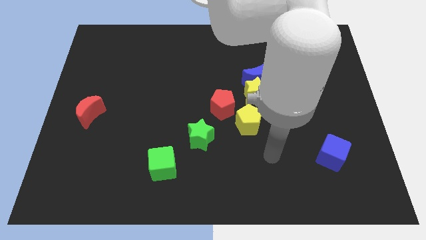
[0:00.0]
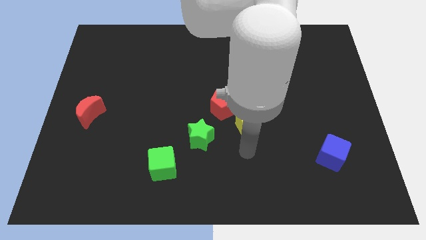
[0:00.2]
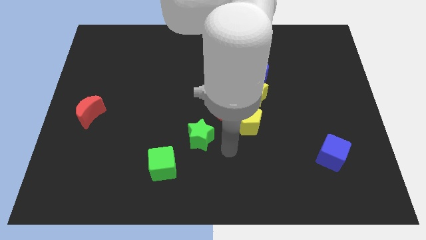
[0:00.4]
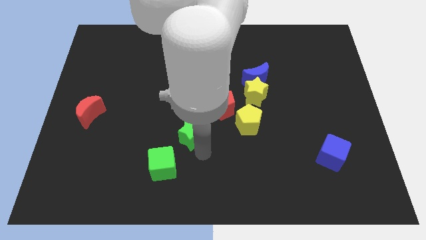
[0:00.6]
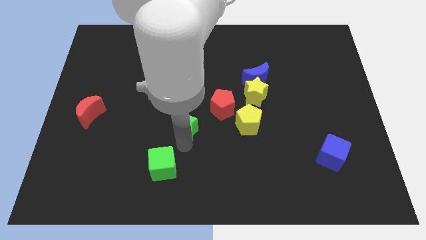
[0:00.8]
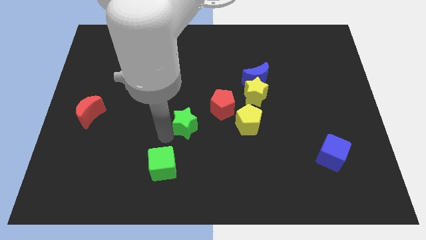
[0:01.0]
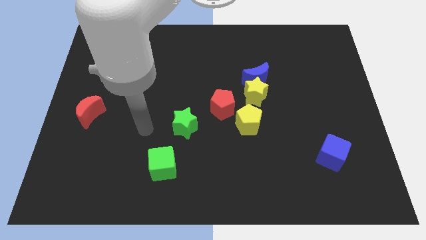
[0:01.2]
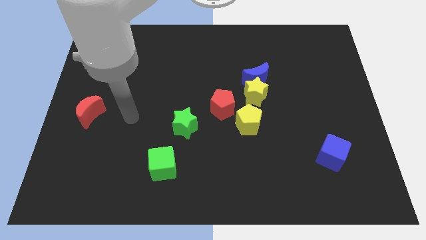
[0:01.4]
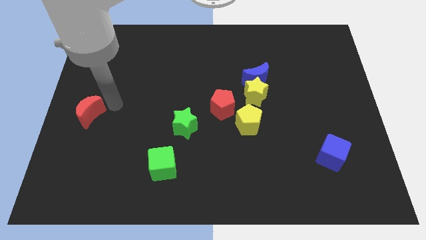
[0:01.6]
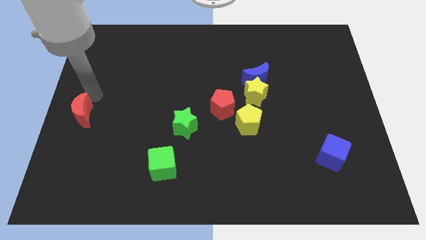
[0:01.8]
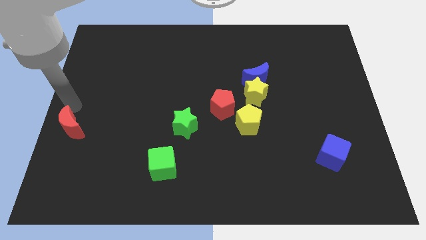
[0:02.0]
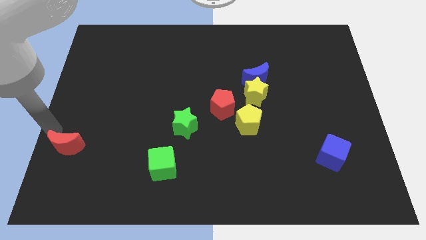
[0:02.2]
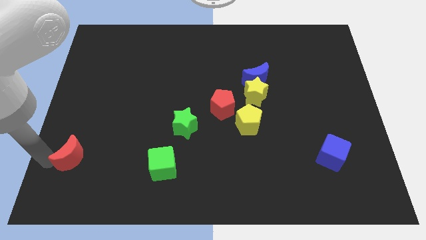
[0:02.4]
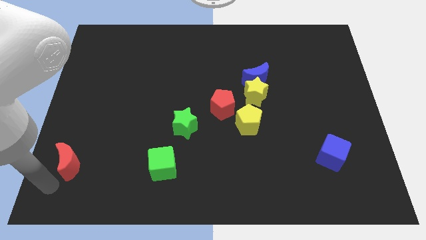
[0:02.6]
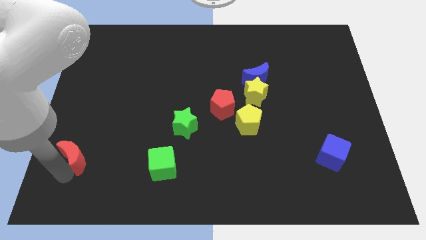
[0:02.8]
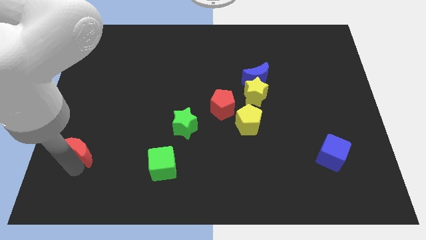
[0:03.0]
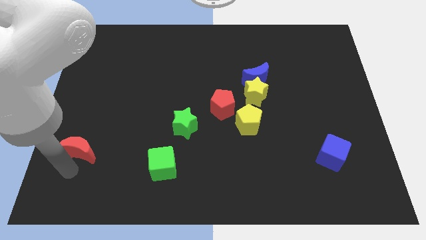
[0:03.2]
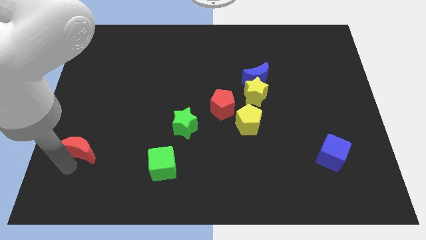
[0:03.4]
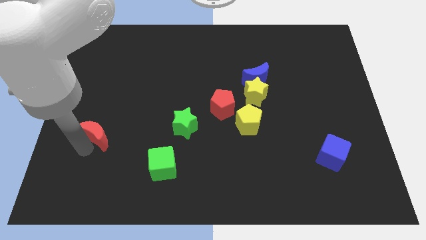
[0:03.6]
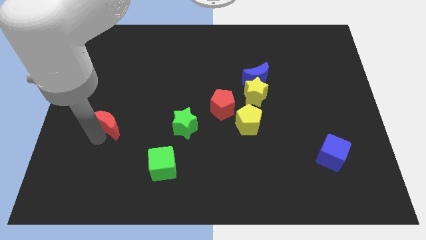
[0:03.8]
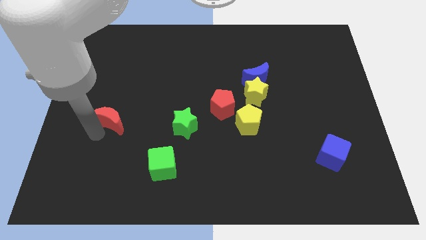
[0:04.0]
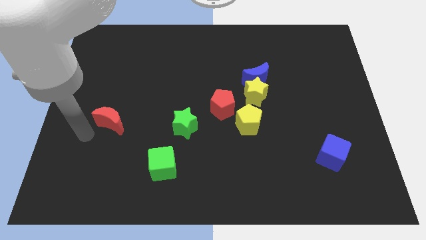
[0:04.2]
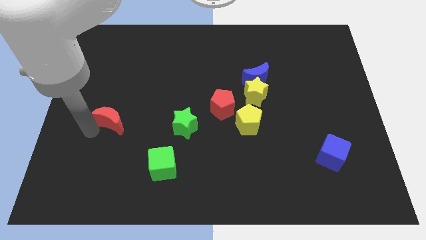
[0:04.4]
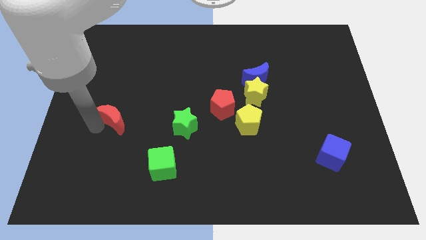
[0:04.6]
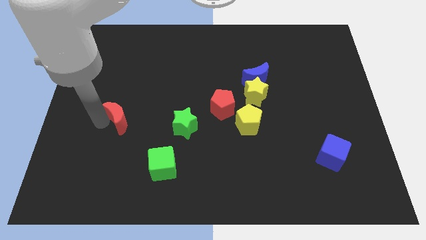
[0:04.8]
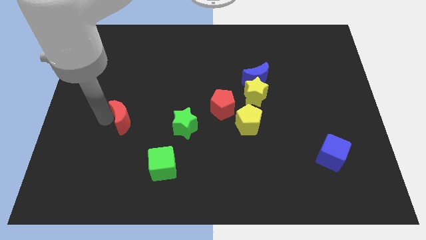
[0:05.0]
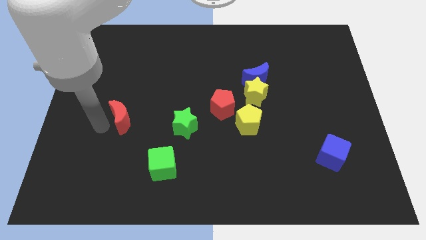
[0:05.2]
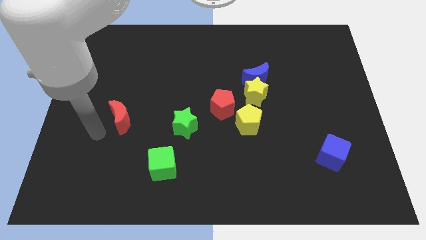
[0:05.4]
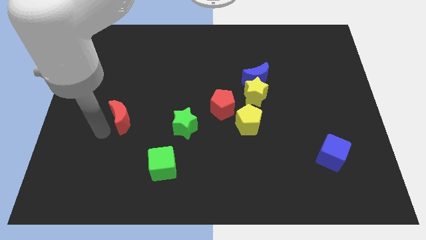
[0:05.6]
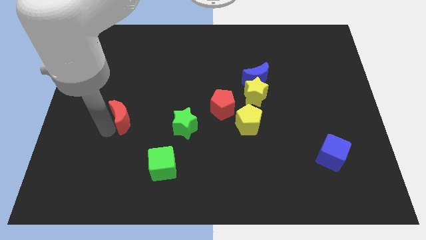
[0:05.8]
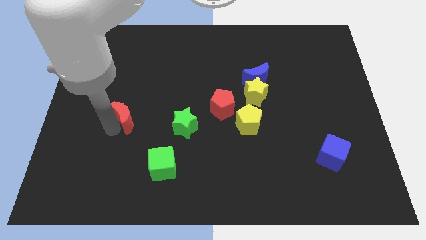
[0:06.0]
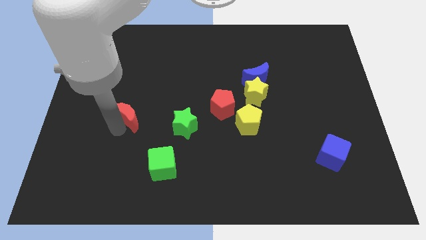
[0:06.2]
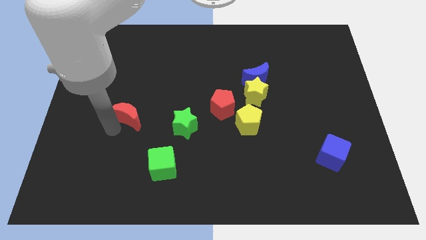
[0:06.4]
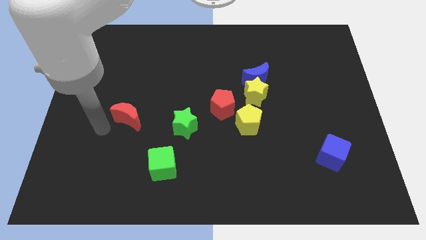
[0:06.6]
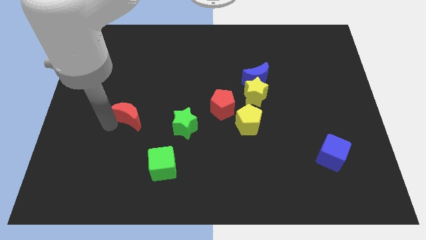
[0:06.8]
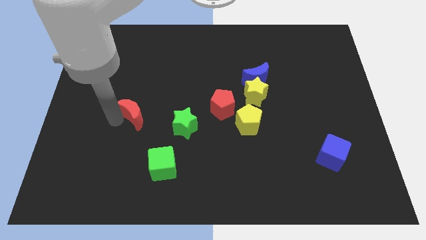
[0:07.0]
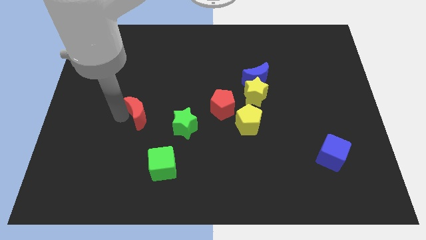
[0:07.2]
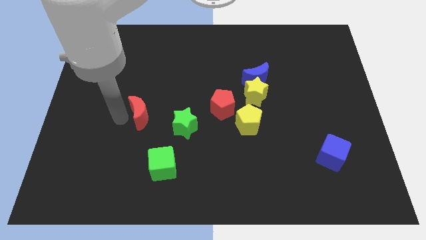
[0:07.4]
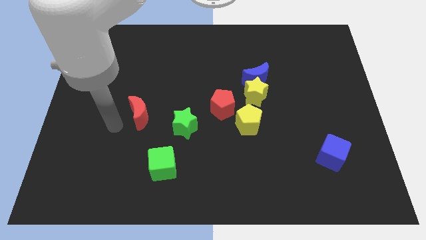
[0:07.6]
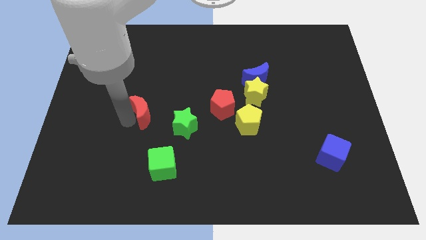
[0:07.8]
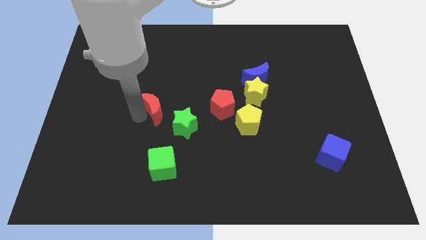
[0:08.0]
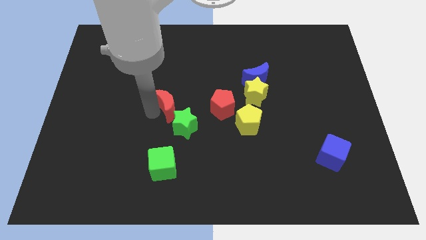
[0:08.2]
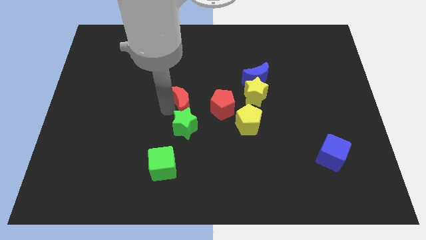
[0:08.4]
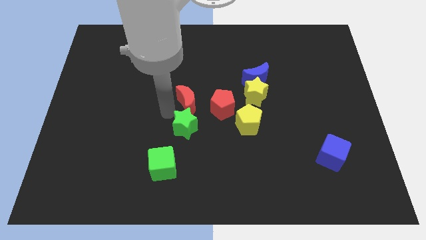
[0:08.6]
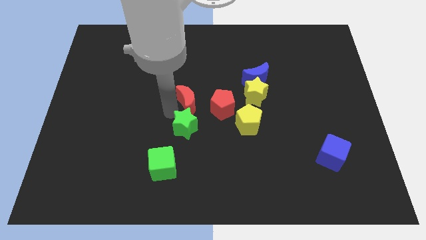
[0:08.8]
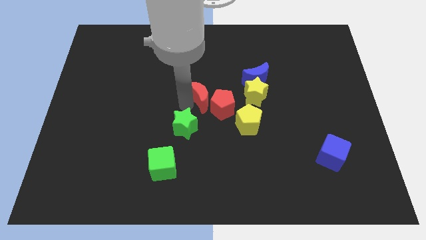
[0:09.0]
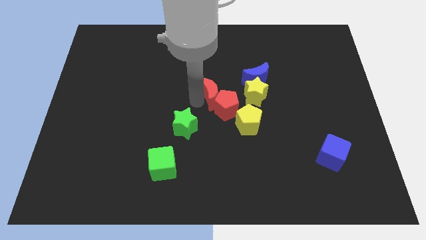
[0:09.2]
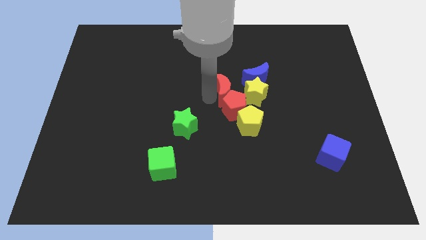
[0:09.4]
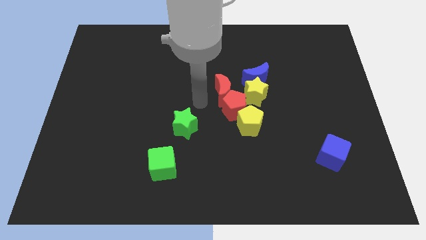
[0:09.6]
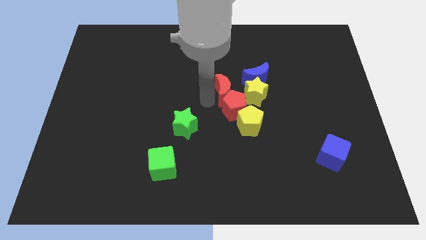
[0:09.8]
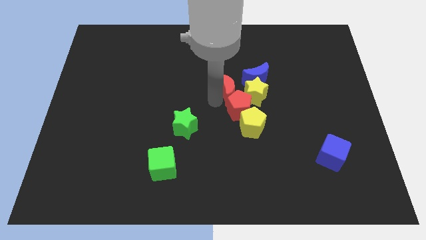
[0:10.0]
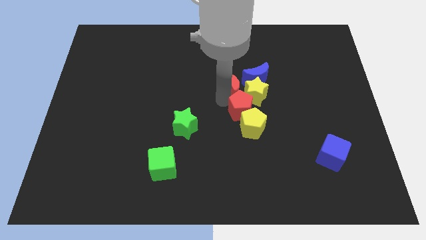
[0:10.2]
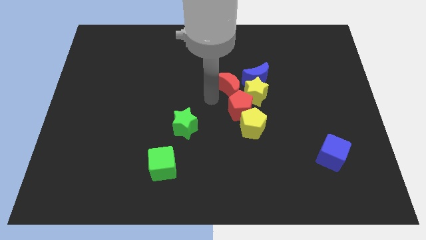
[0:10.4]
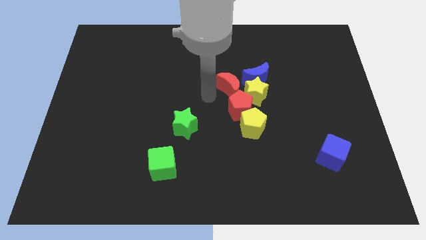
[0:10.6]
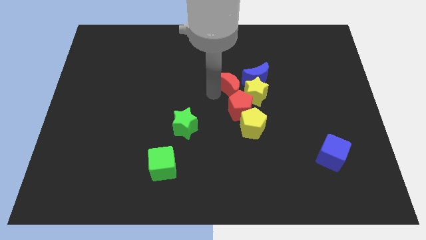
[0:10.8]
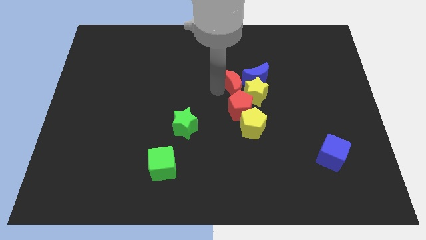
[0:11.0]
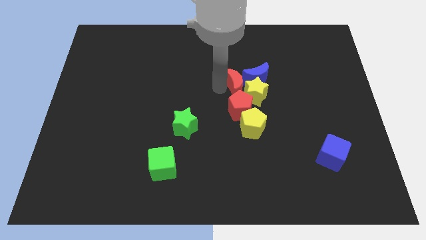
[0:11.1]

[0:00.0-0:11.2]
slide the red moon towards the blue moon

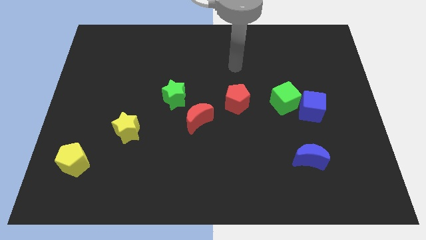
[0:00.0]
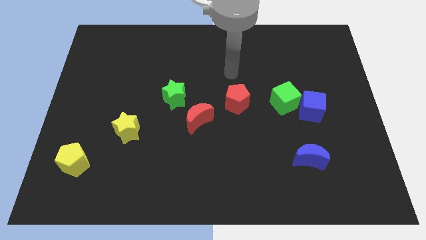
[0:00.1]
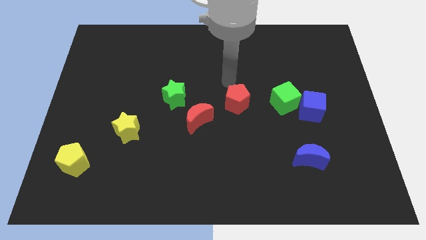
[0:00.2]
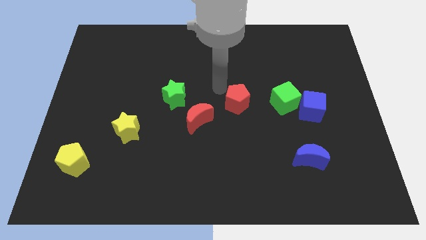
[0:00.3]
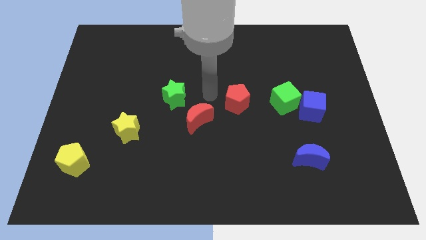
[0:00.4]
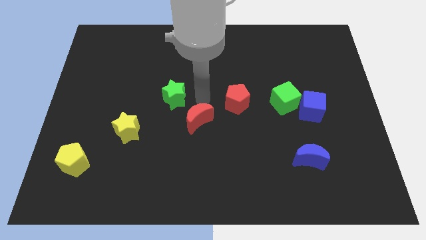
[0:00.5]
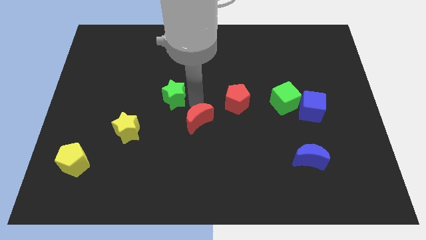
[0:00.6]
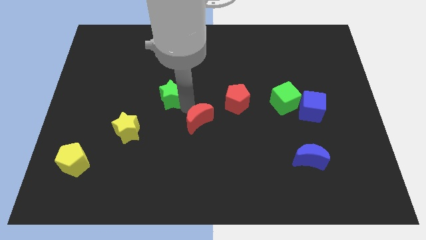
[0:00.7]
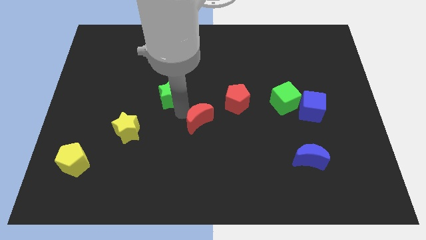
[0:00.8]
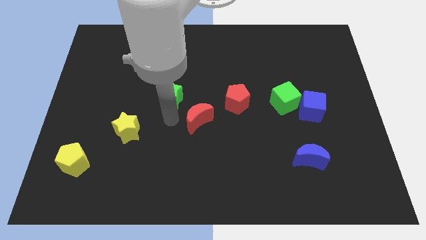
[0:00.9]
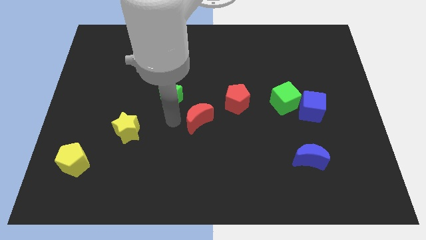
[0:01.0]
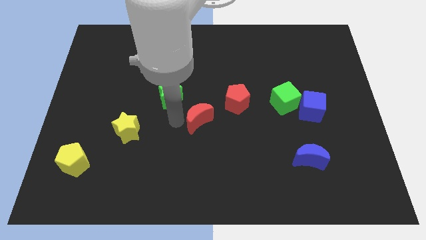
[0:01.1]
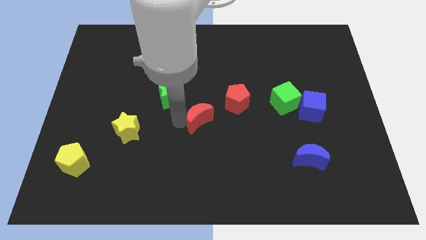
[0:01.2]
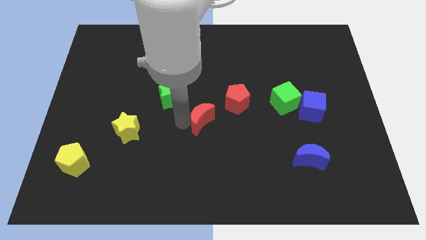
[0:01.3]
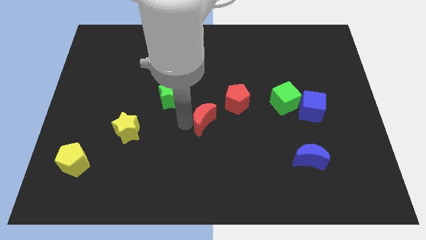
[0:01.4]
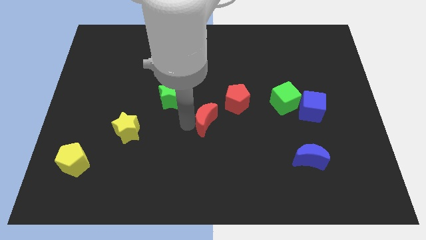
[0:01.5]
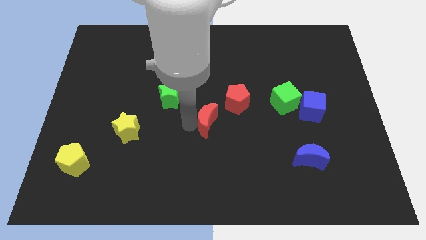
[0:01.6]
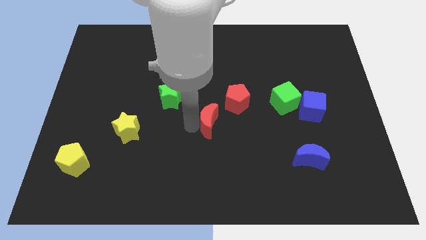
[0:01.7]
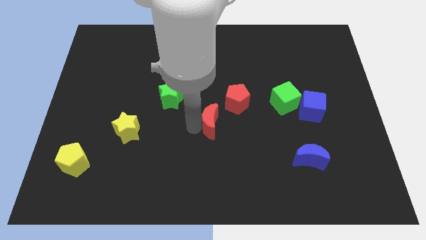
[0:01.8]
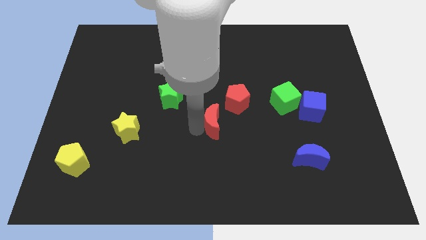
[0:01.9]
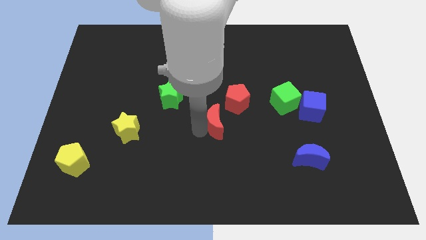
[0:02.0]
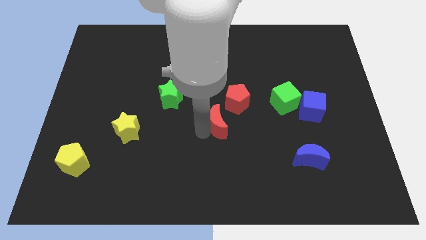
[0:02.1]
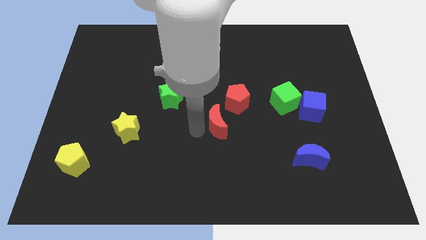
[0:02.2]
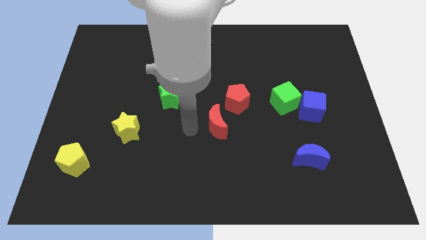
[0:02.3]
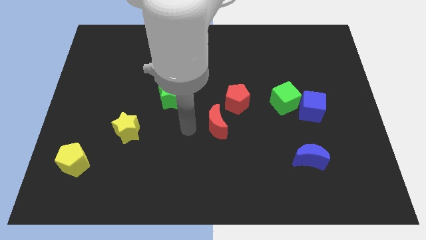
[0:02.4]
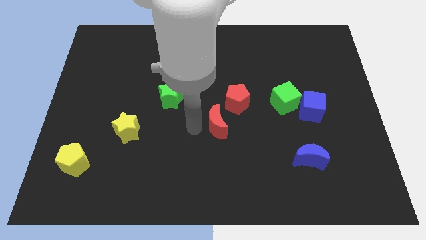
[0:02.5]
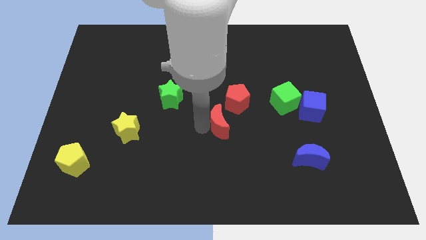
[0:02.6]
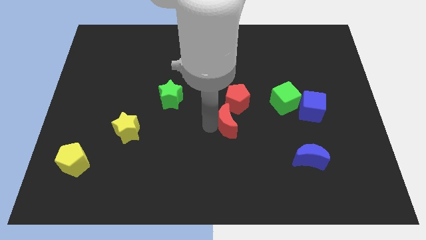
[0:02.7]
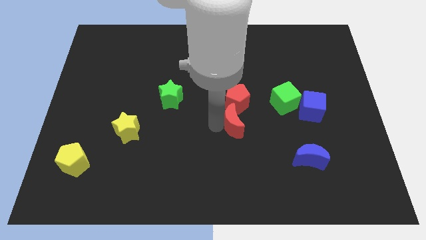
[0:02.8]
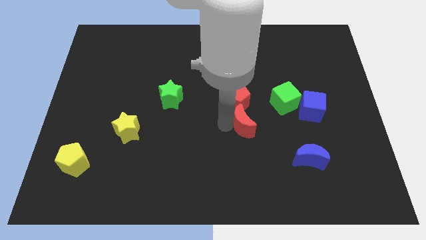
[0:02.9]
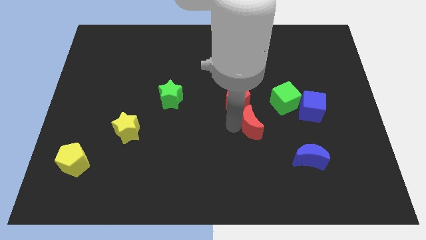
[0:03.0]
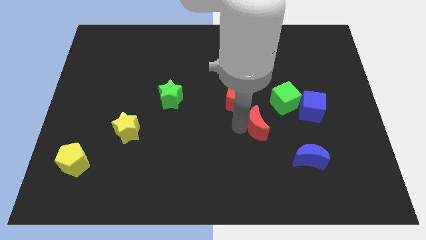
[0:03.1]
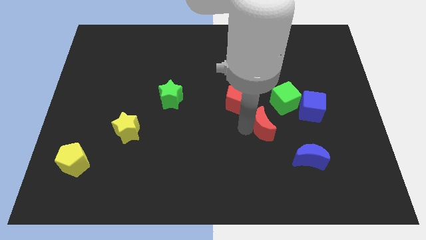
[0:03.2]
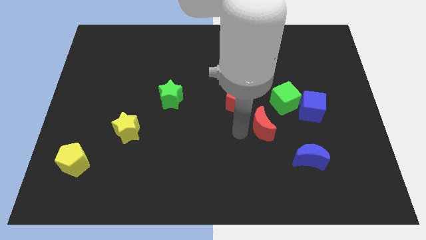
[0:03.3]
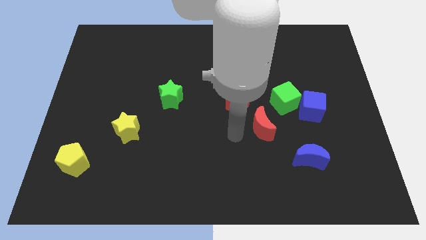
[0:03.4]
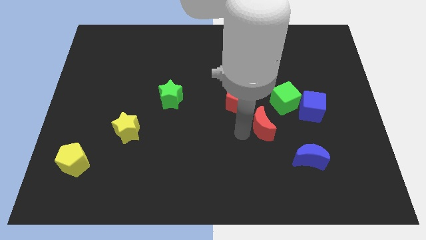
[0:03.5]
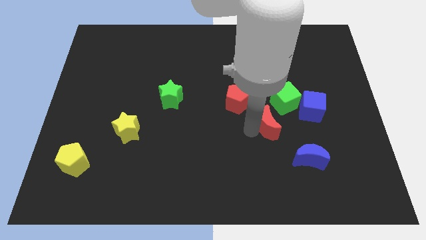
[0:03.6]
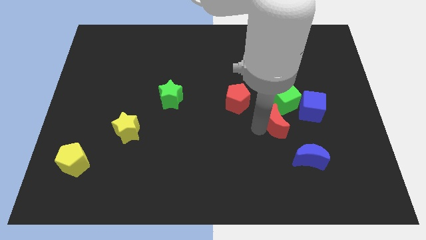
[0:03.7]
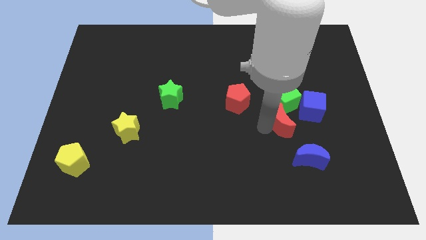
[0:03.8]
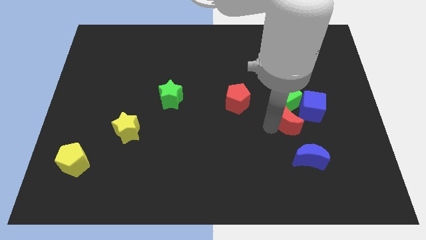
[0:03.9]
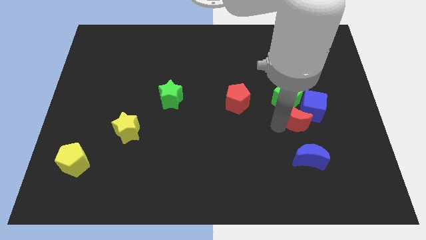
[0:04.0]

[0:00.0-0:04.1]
move the red moon close to the blue cube
